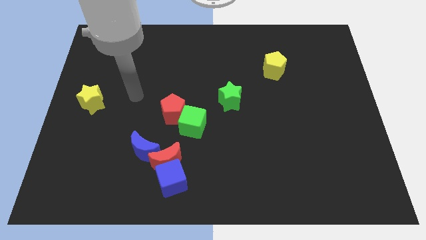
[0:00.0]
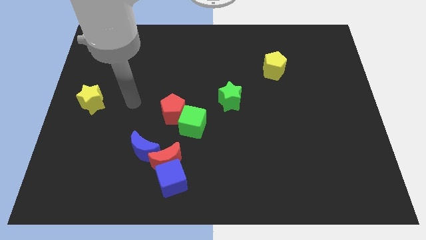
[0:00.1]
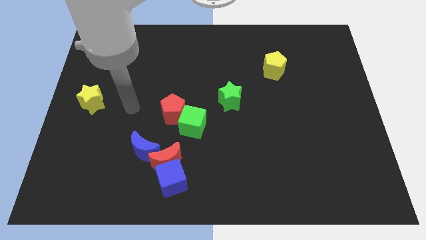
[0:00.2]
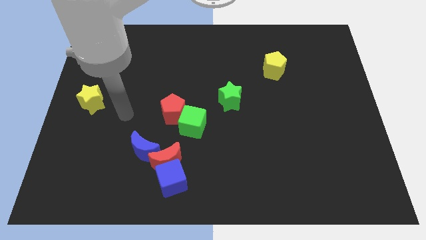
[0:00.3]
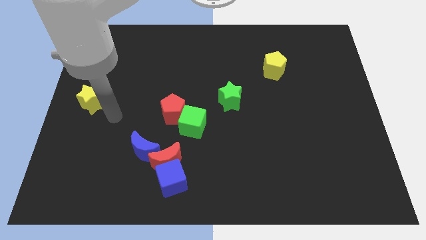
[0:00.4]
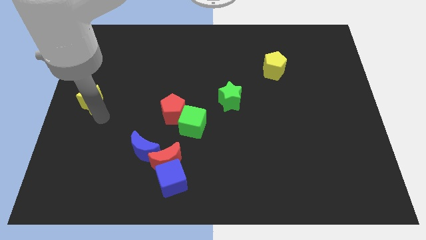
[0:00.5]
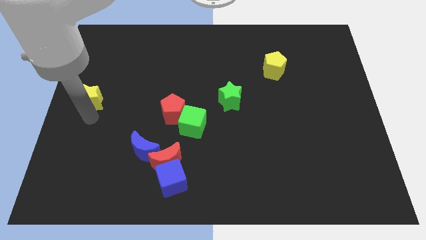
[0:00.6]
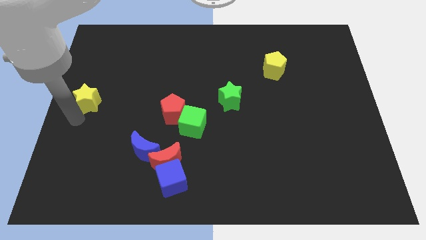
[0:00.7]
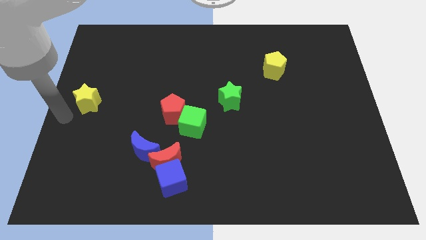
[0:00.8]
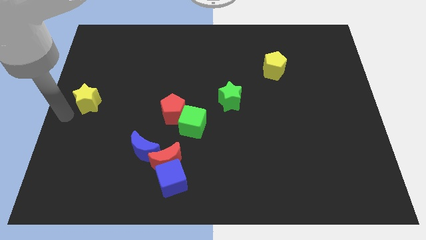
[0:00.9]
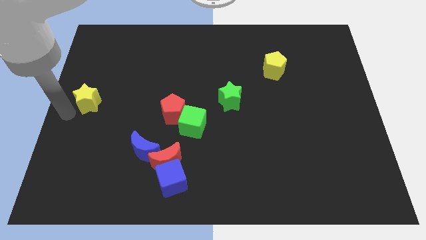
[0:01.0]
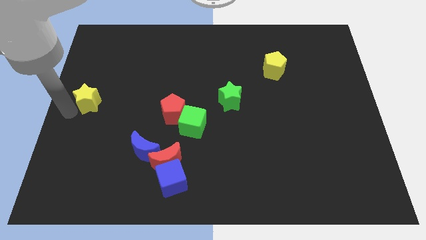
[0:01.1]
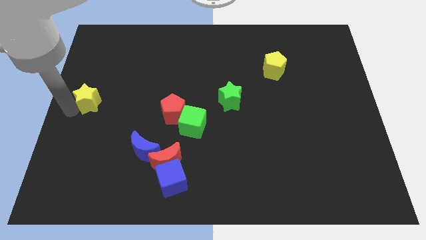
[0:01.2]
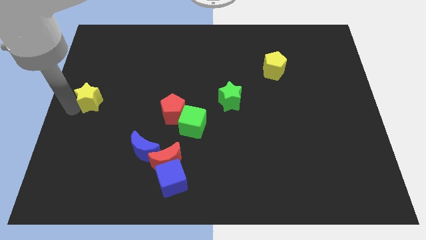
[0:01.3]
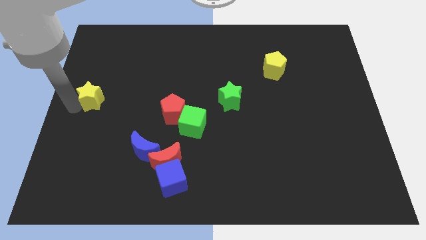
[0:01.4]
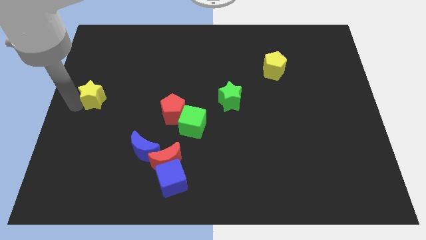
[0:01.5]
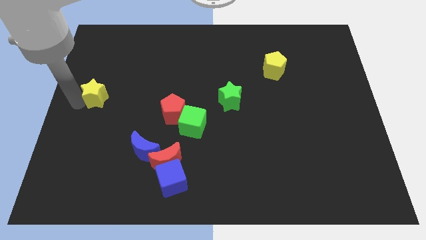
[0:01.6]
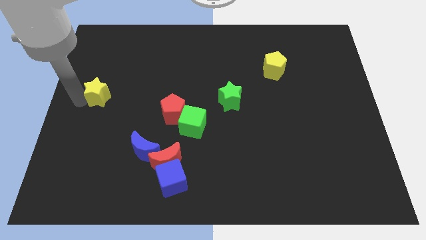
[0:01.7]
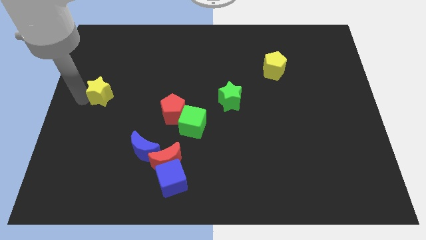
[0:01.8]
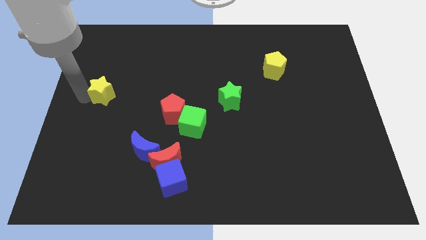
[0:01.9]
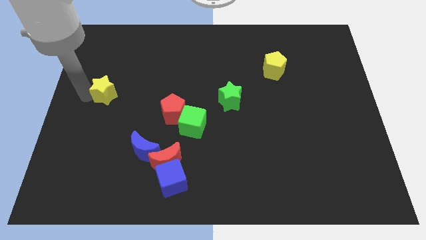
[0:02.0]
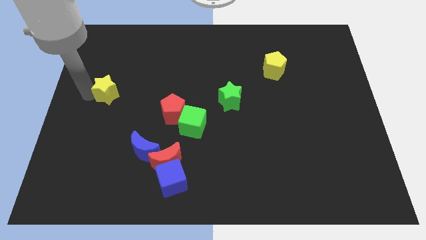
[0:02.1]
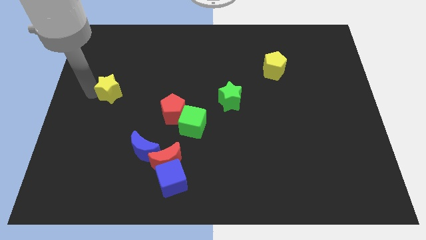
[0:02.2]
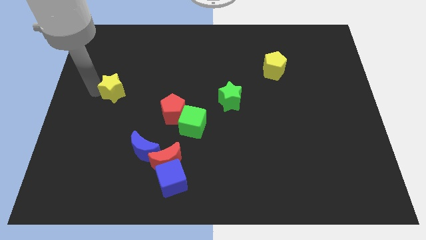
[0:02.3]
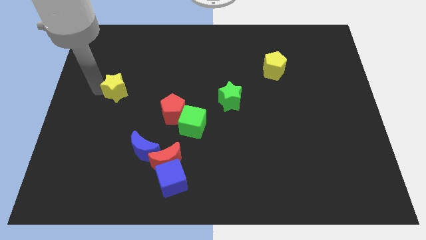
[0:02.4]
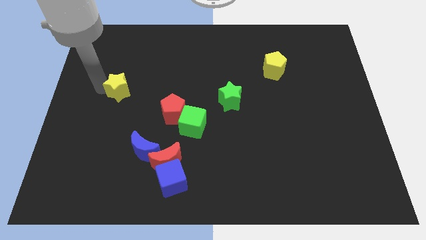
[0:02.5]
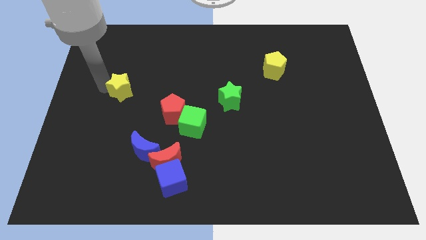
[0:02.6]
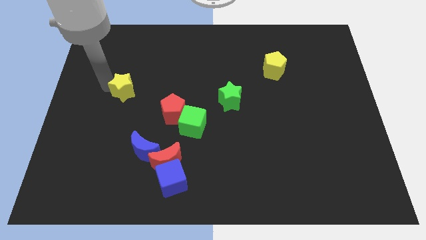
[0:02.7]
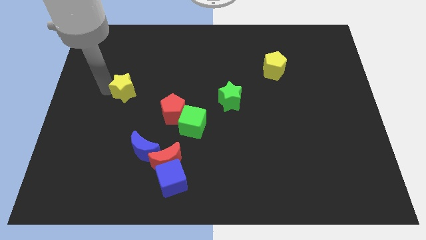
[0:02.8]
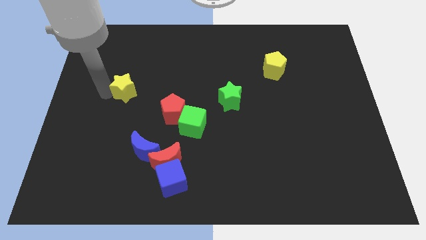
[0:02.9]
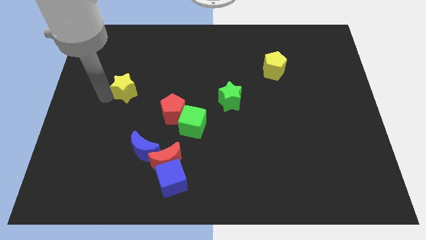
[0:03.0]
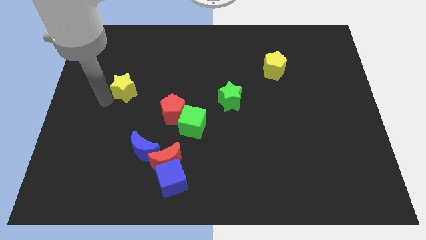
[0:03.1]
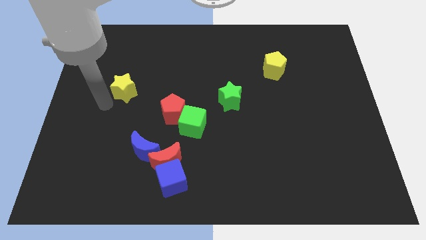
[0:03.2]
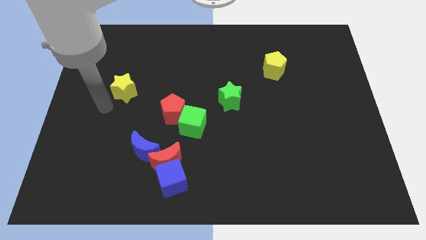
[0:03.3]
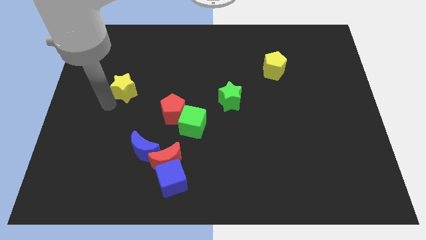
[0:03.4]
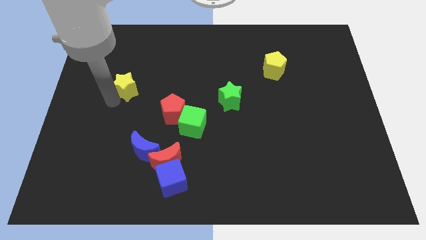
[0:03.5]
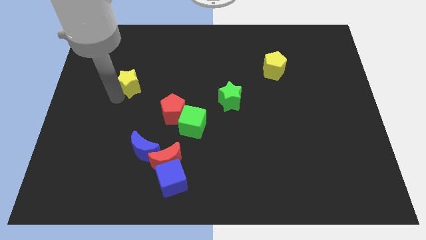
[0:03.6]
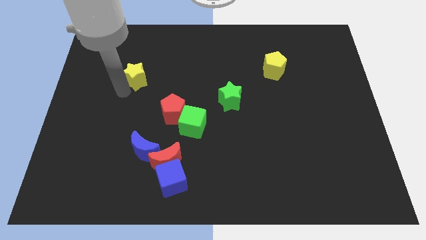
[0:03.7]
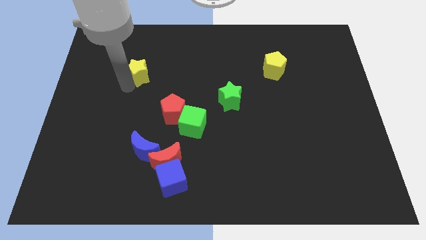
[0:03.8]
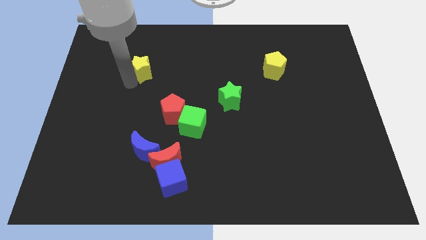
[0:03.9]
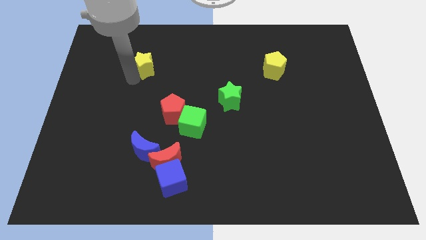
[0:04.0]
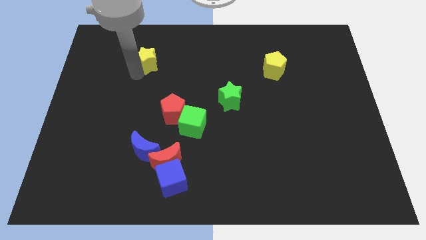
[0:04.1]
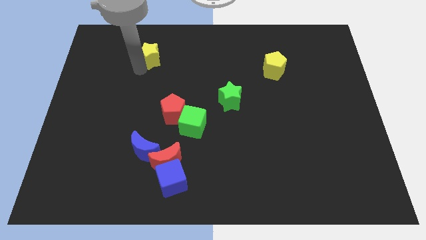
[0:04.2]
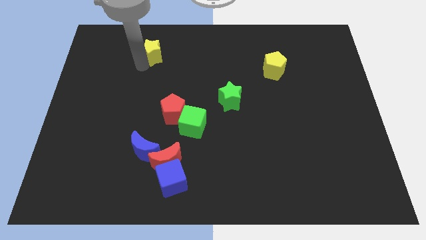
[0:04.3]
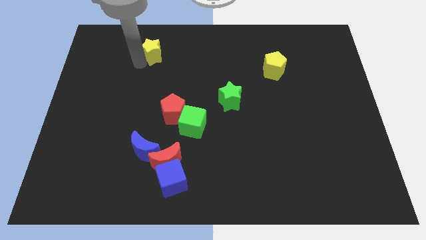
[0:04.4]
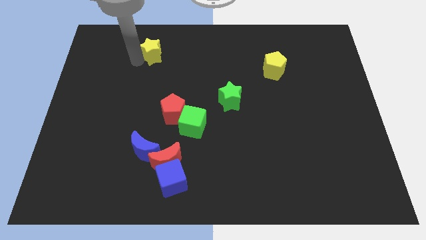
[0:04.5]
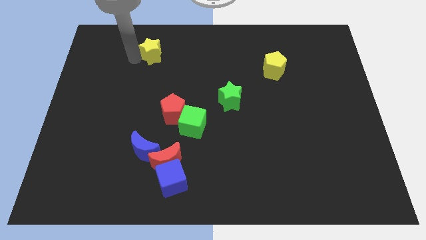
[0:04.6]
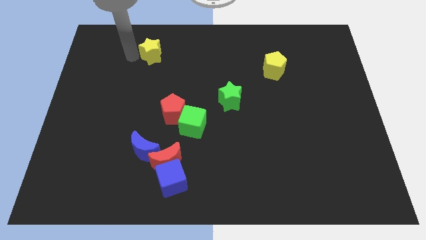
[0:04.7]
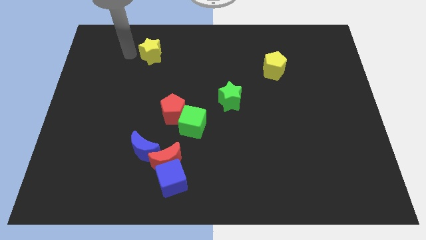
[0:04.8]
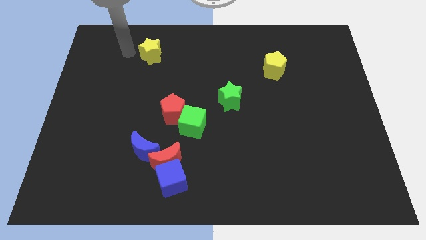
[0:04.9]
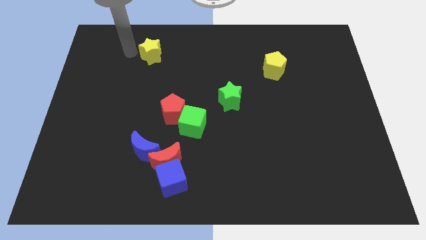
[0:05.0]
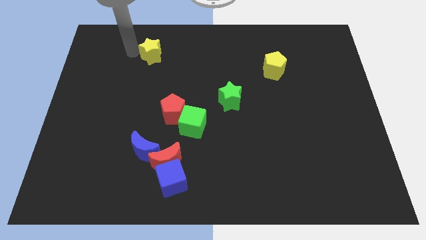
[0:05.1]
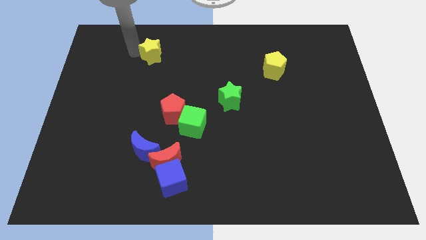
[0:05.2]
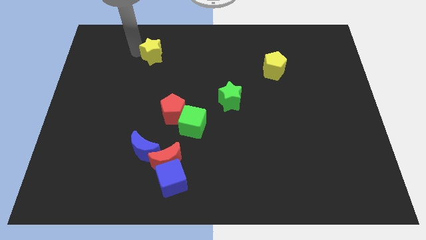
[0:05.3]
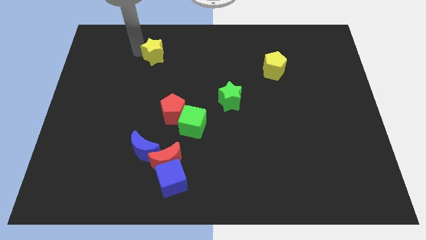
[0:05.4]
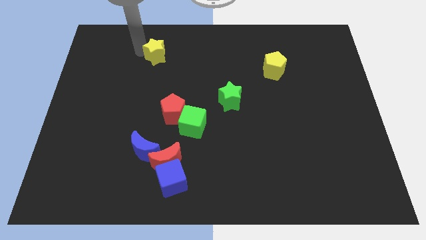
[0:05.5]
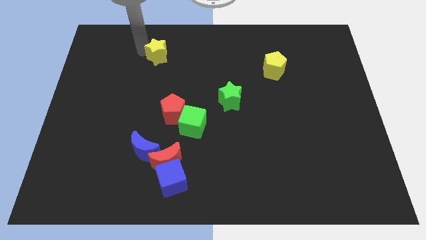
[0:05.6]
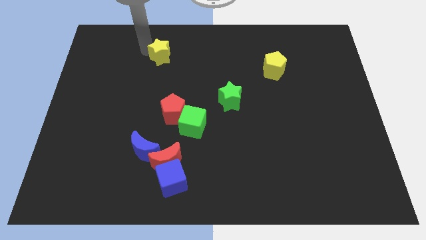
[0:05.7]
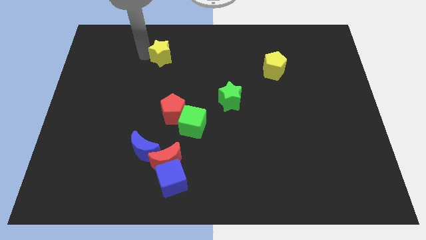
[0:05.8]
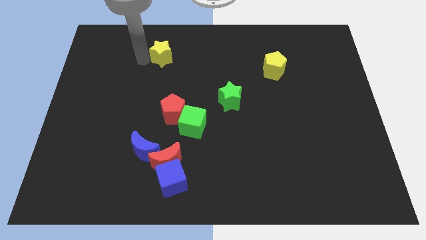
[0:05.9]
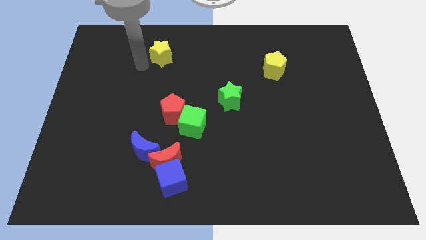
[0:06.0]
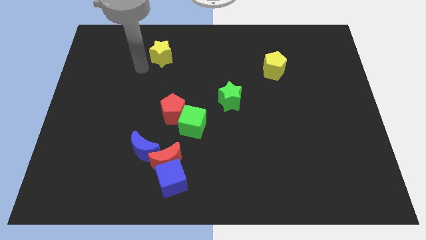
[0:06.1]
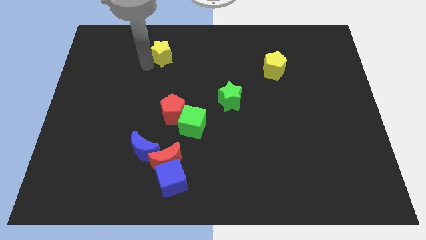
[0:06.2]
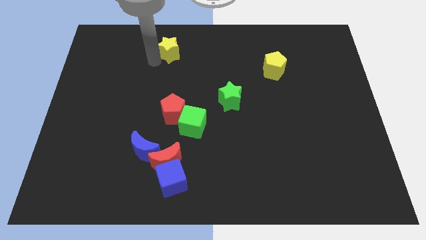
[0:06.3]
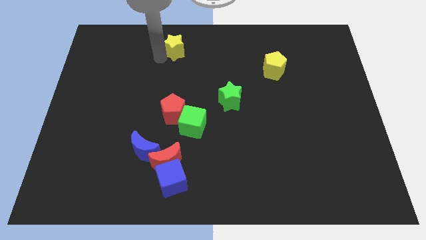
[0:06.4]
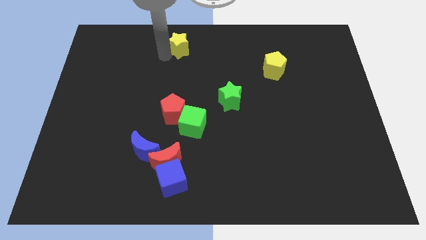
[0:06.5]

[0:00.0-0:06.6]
move the yellow star to the top

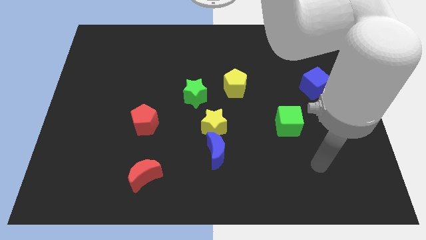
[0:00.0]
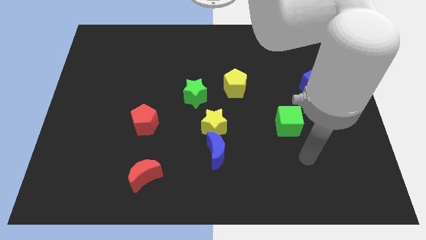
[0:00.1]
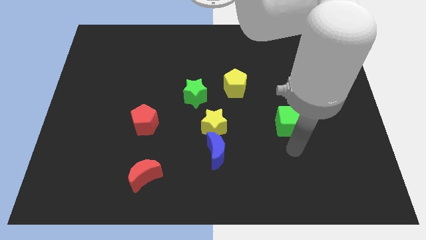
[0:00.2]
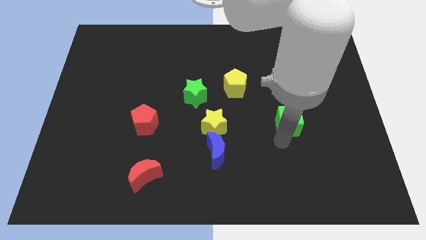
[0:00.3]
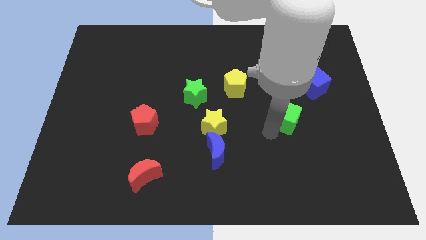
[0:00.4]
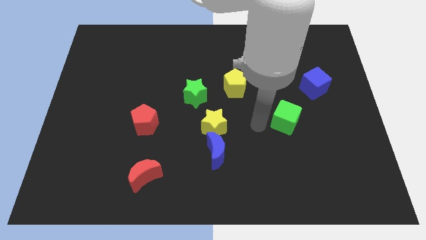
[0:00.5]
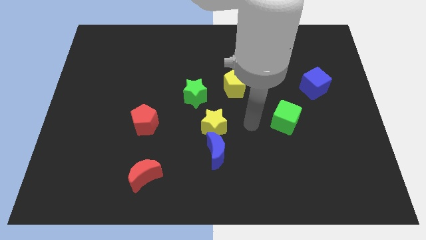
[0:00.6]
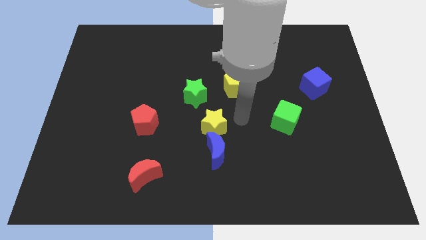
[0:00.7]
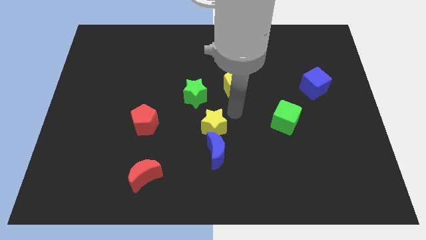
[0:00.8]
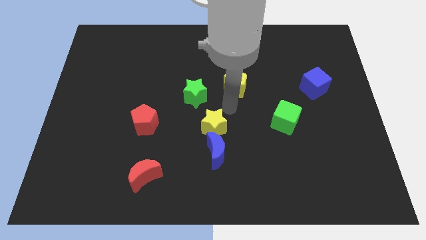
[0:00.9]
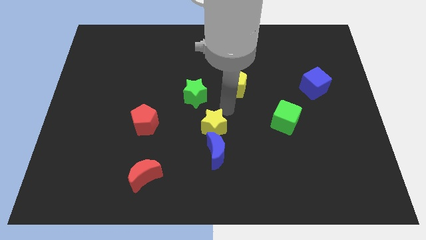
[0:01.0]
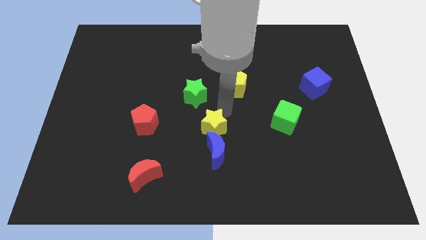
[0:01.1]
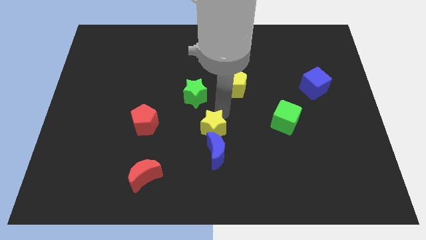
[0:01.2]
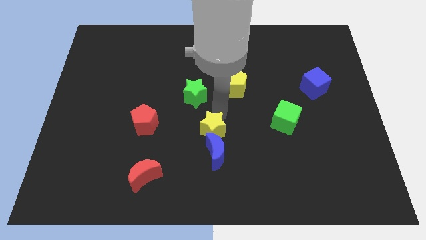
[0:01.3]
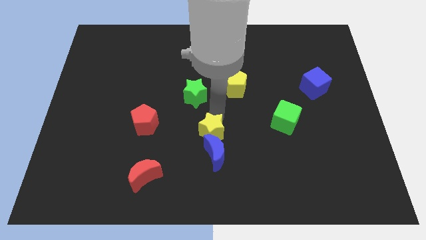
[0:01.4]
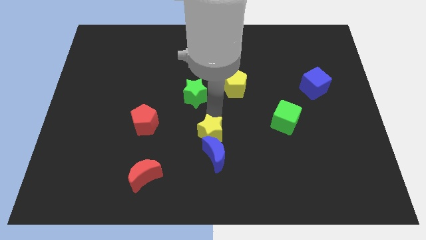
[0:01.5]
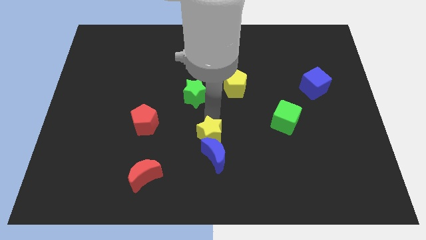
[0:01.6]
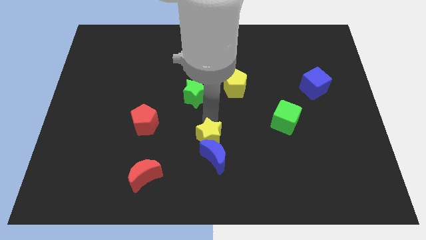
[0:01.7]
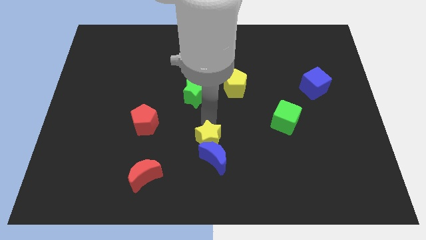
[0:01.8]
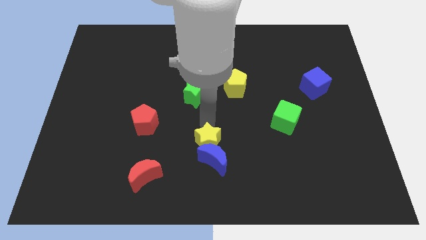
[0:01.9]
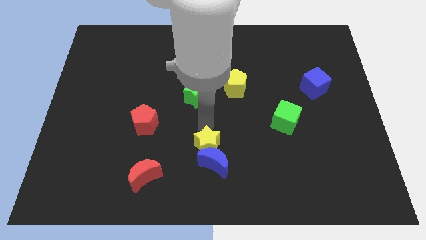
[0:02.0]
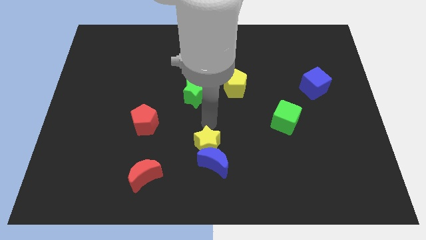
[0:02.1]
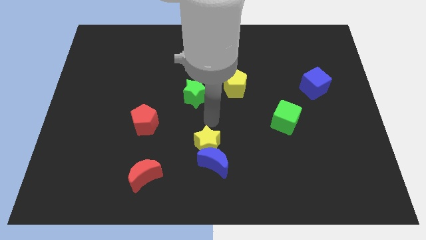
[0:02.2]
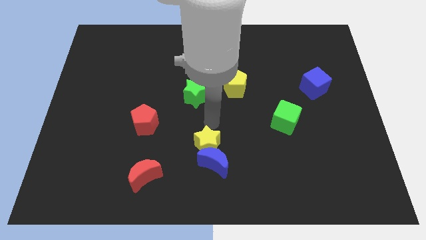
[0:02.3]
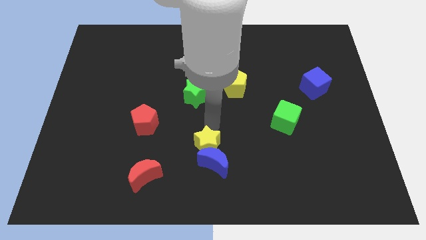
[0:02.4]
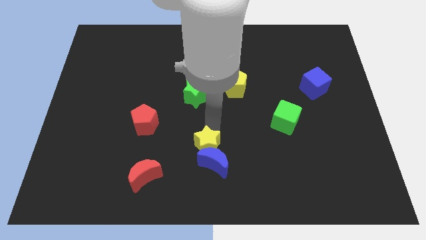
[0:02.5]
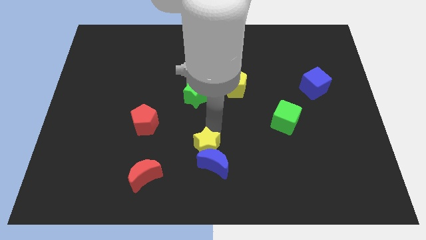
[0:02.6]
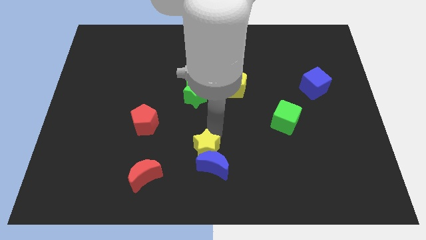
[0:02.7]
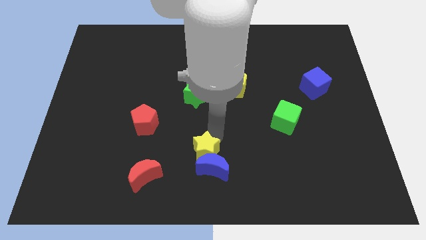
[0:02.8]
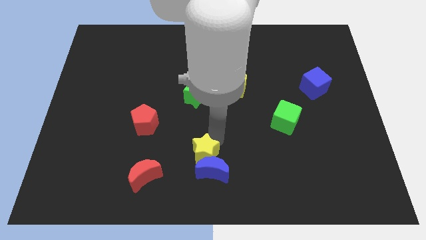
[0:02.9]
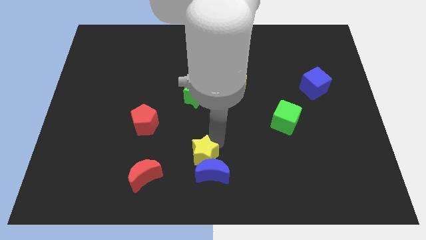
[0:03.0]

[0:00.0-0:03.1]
slide the yellow star to the bottom side
